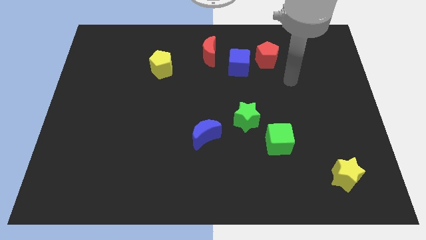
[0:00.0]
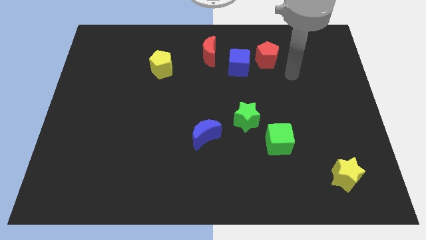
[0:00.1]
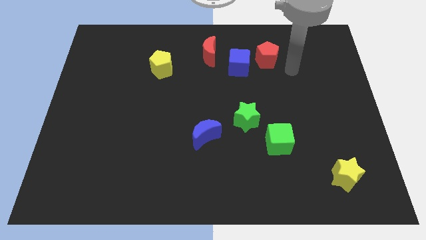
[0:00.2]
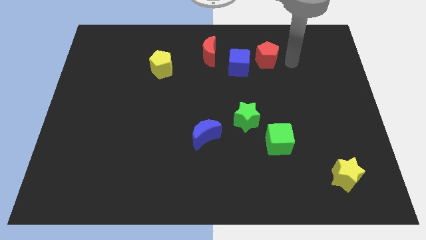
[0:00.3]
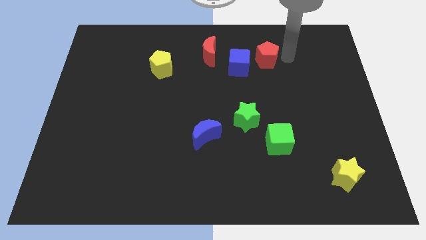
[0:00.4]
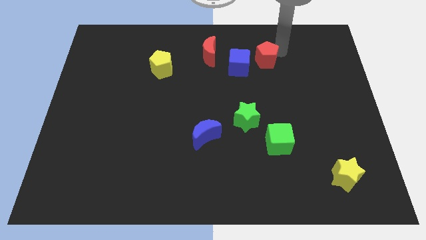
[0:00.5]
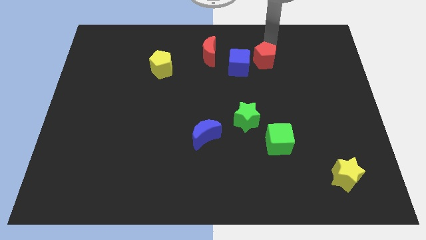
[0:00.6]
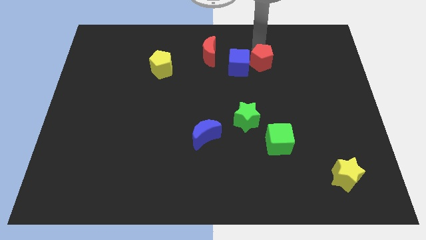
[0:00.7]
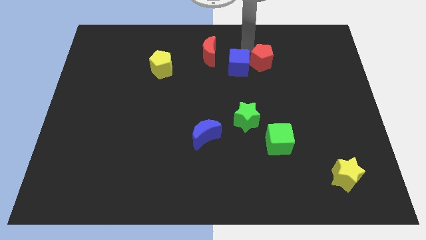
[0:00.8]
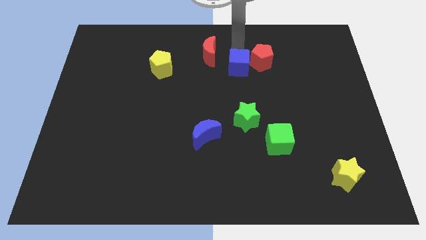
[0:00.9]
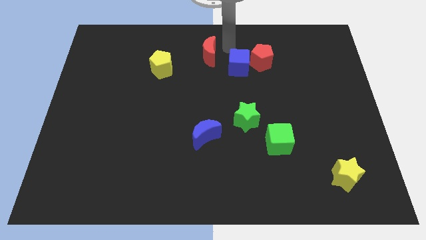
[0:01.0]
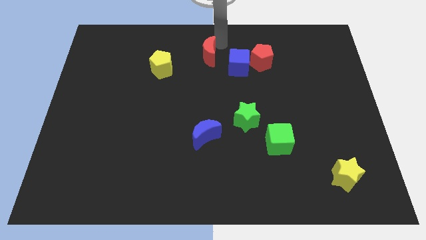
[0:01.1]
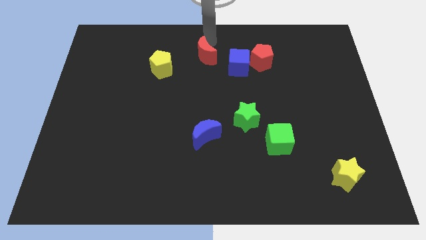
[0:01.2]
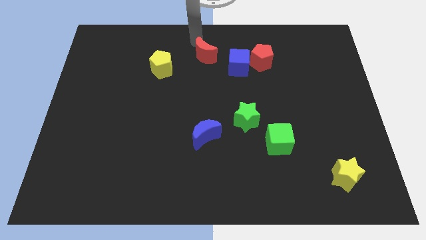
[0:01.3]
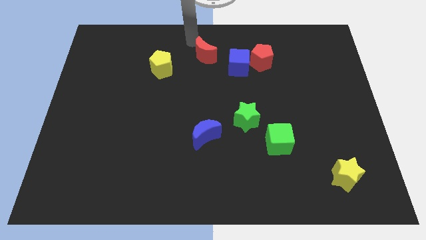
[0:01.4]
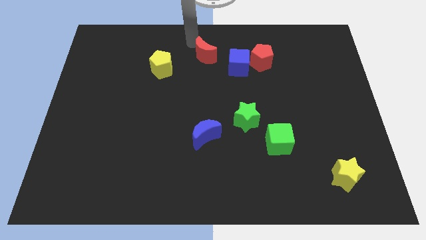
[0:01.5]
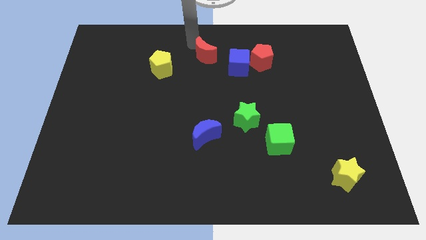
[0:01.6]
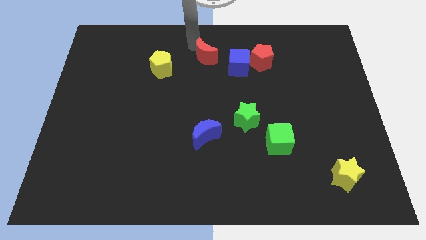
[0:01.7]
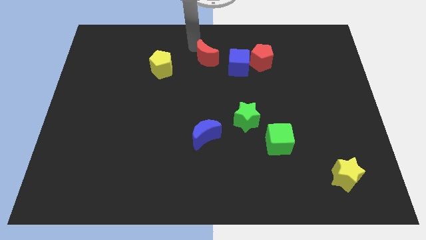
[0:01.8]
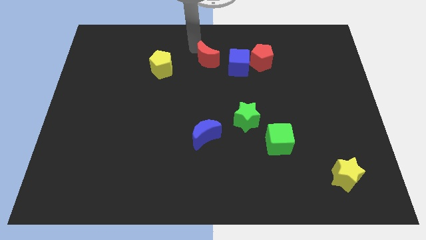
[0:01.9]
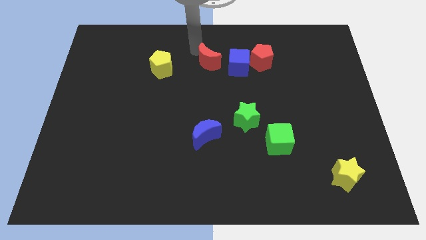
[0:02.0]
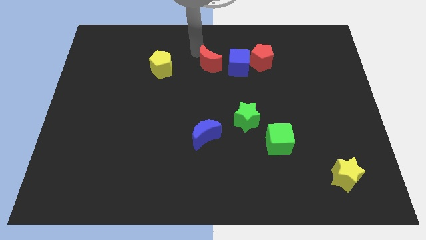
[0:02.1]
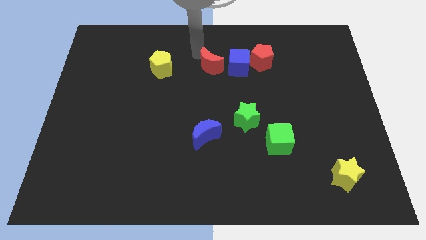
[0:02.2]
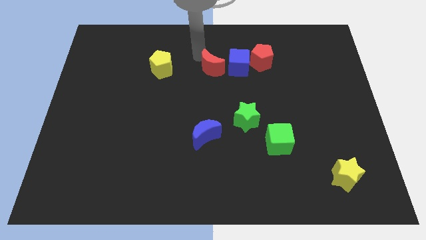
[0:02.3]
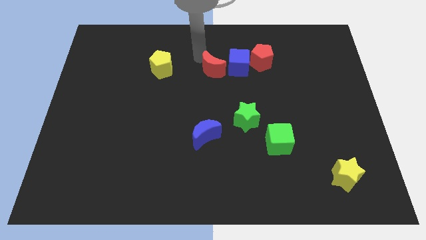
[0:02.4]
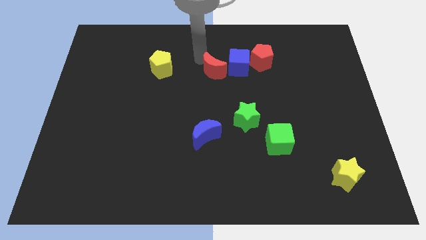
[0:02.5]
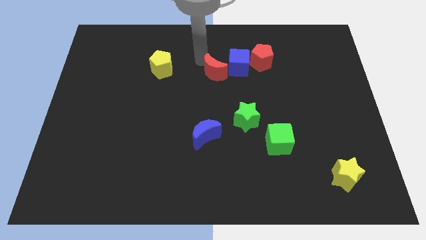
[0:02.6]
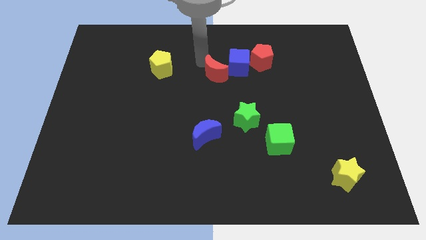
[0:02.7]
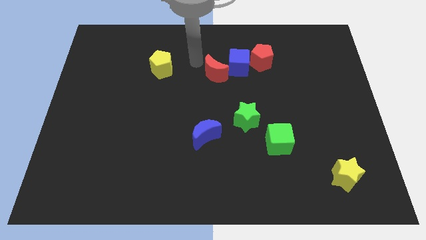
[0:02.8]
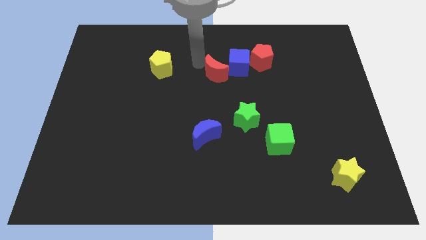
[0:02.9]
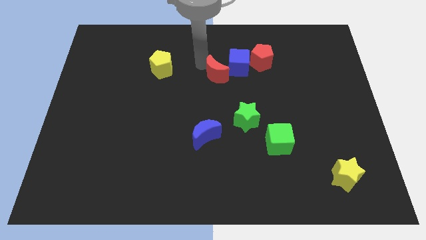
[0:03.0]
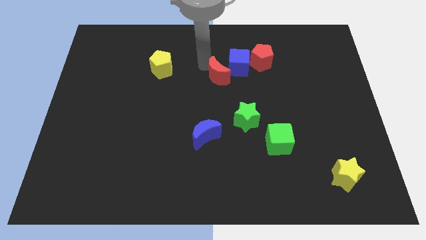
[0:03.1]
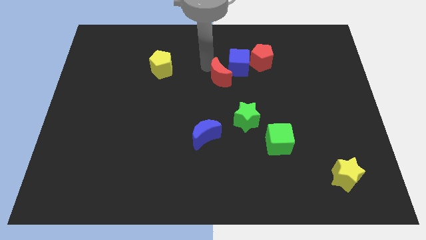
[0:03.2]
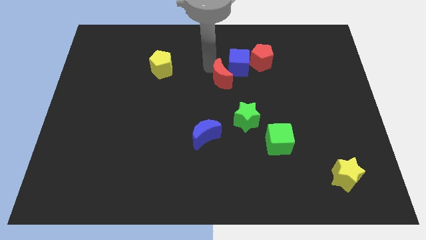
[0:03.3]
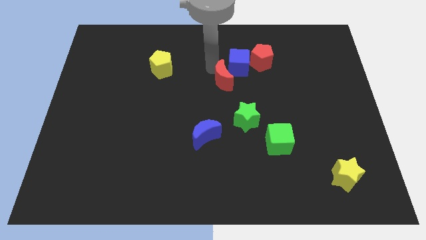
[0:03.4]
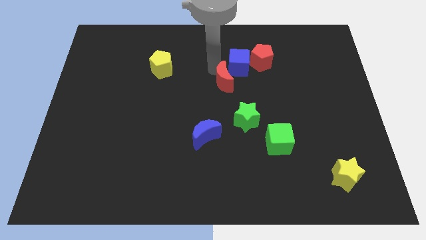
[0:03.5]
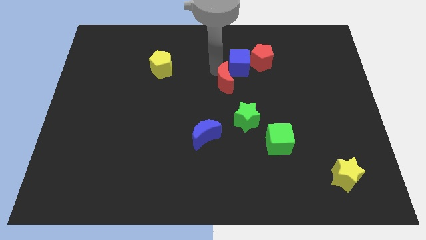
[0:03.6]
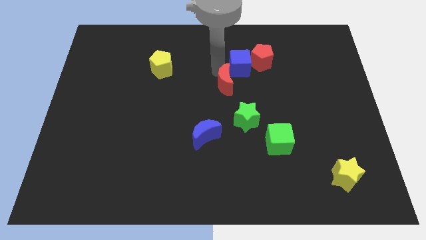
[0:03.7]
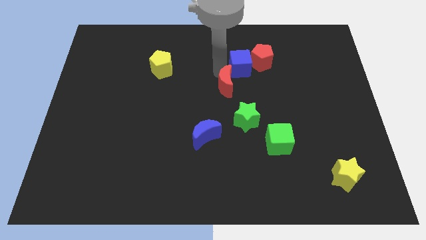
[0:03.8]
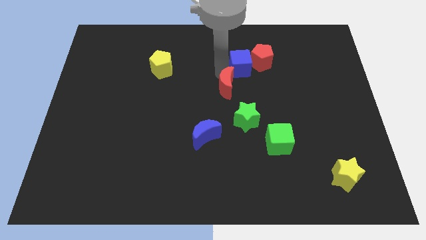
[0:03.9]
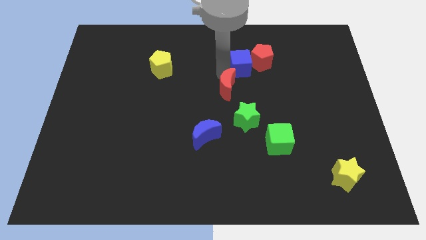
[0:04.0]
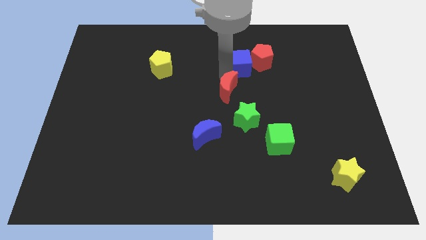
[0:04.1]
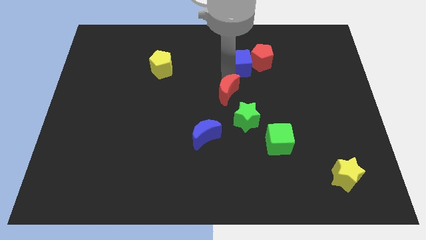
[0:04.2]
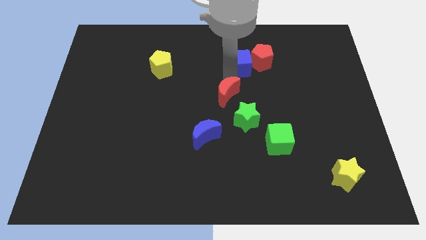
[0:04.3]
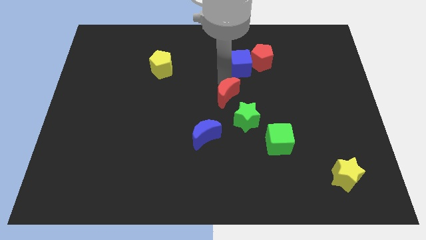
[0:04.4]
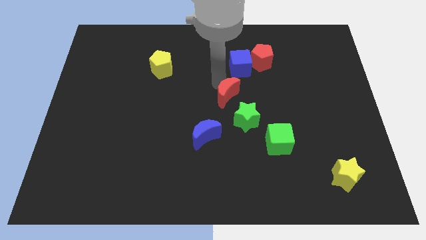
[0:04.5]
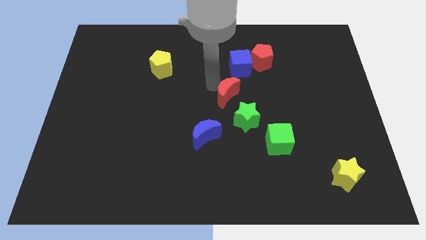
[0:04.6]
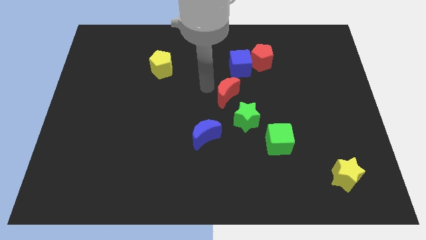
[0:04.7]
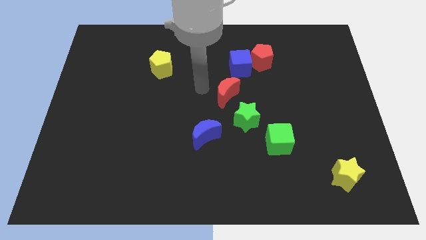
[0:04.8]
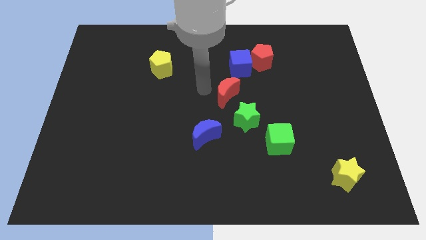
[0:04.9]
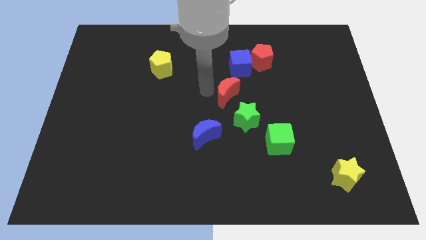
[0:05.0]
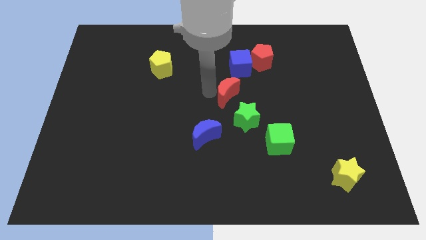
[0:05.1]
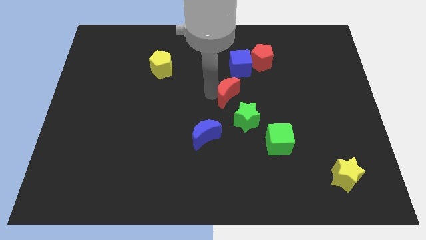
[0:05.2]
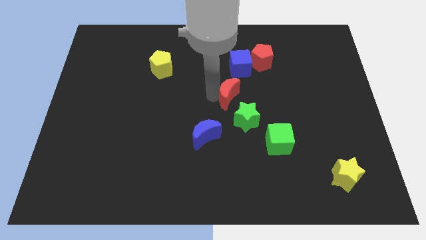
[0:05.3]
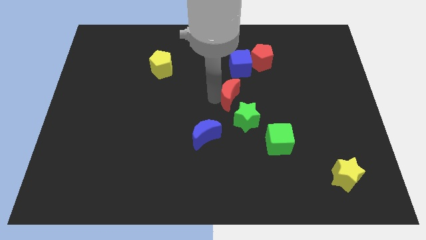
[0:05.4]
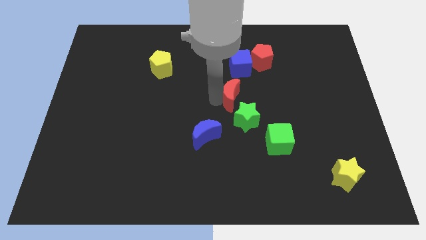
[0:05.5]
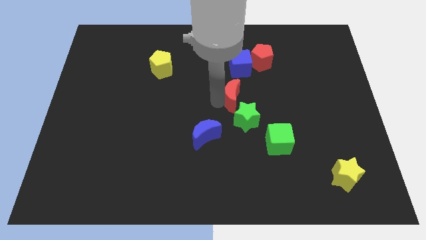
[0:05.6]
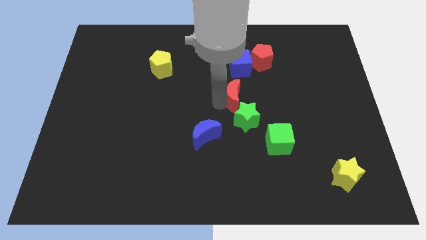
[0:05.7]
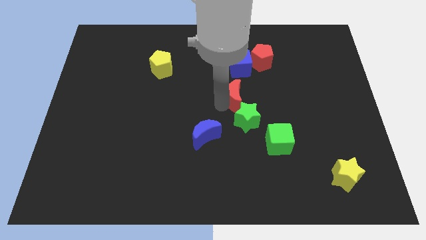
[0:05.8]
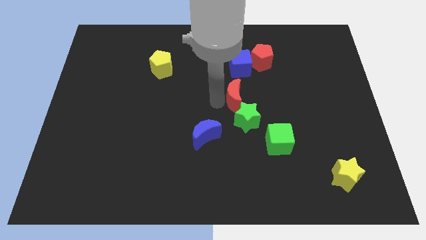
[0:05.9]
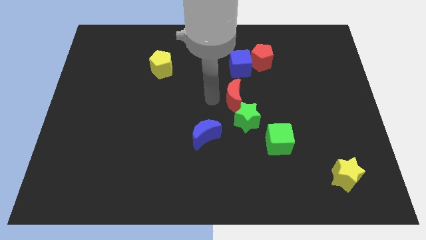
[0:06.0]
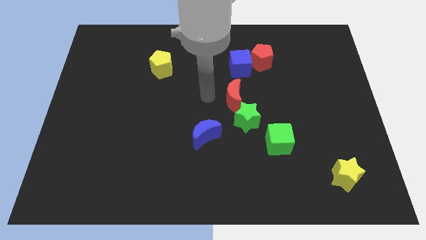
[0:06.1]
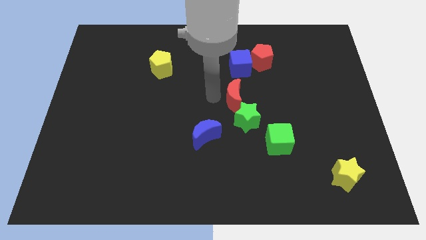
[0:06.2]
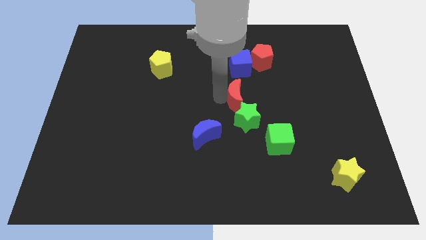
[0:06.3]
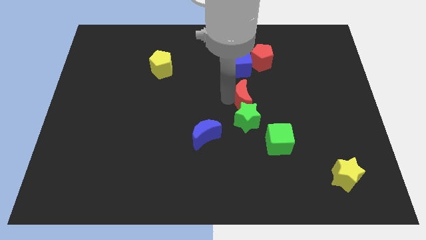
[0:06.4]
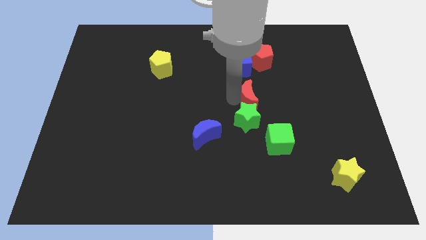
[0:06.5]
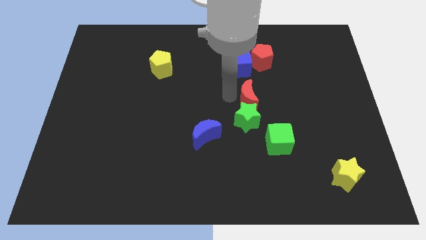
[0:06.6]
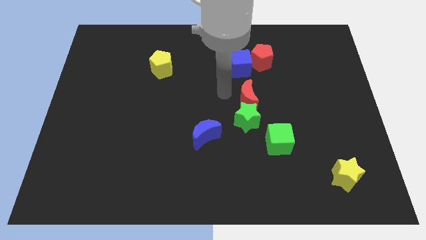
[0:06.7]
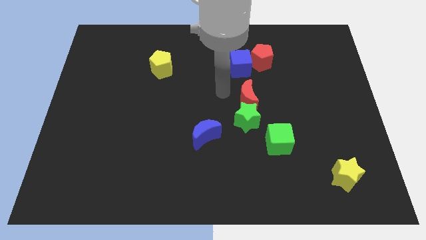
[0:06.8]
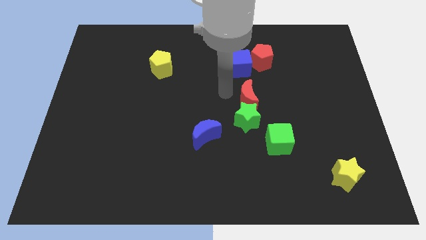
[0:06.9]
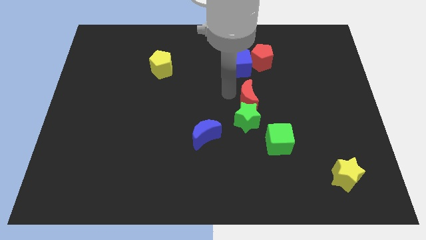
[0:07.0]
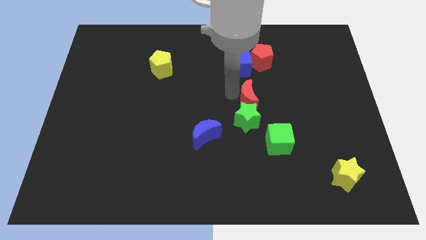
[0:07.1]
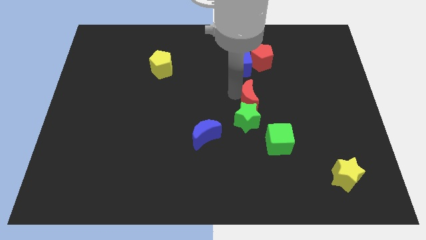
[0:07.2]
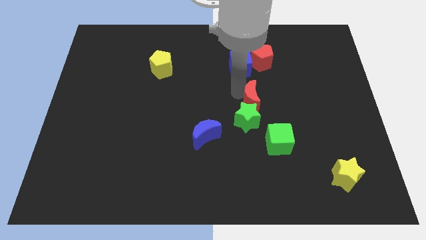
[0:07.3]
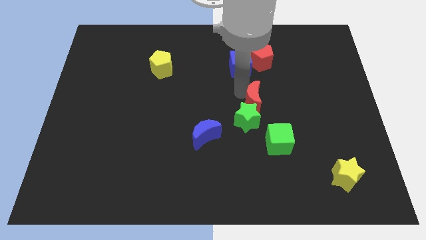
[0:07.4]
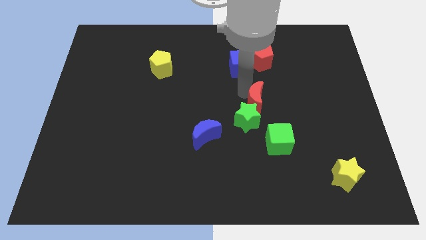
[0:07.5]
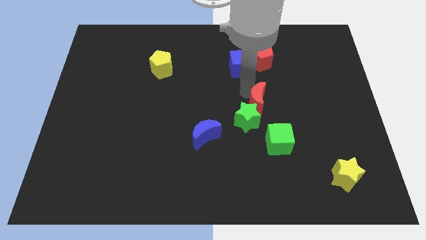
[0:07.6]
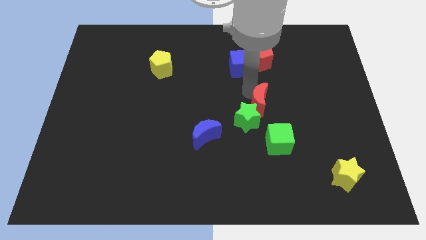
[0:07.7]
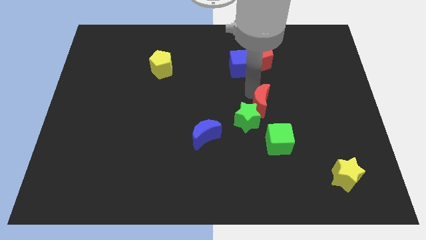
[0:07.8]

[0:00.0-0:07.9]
move the red moon diagonally down and right

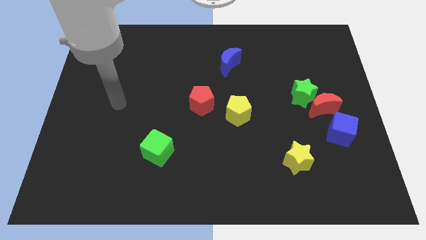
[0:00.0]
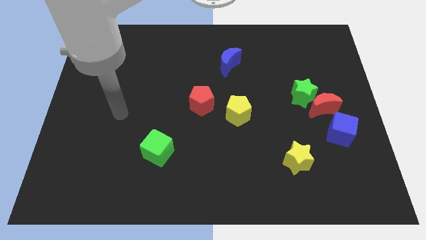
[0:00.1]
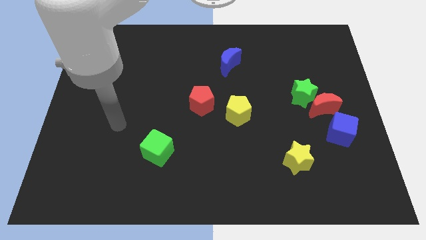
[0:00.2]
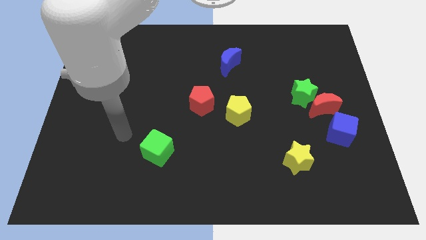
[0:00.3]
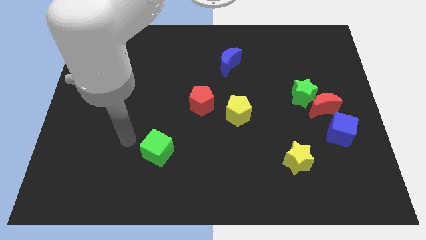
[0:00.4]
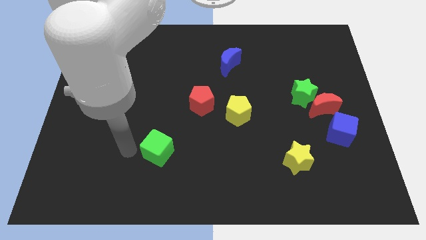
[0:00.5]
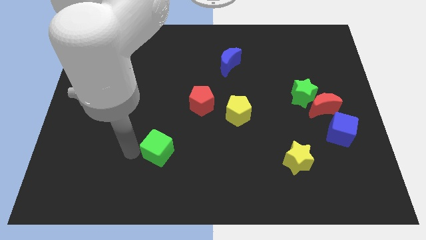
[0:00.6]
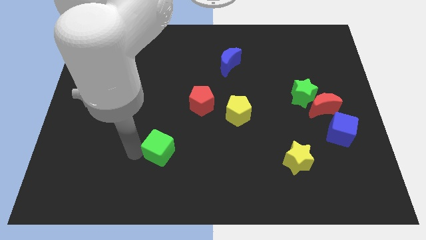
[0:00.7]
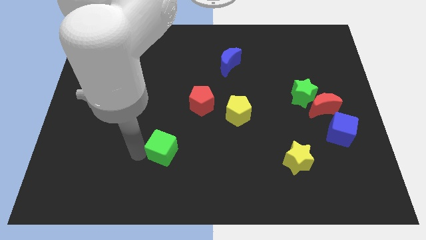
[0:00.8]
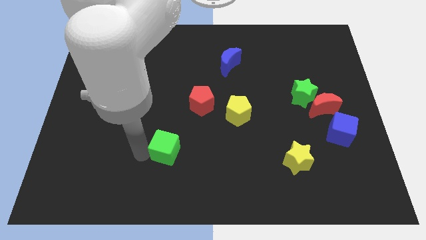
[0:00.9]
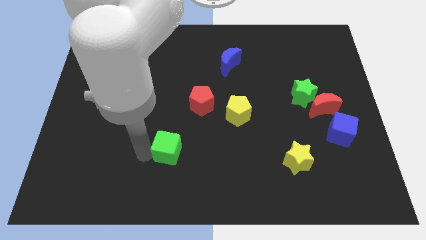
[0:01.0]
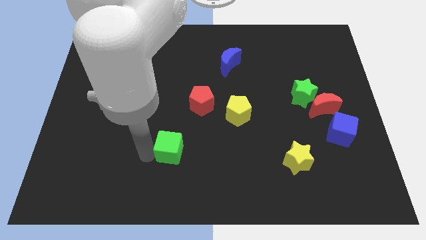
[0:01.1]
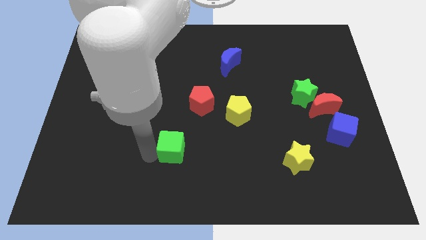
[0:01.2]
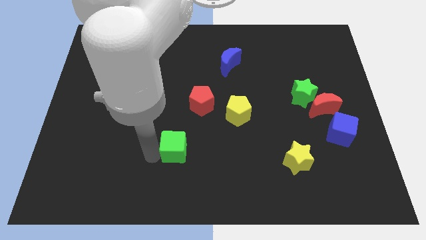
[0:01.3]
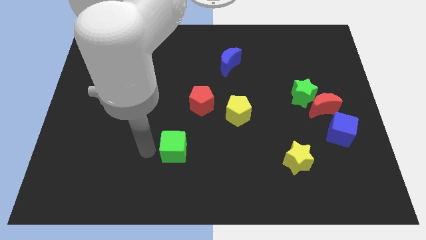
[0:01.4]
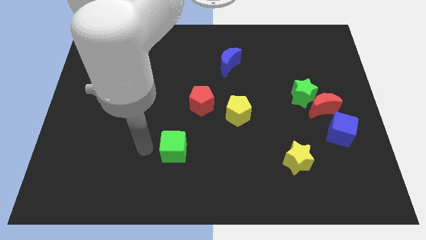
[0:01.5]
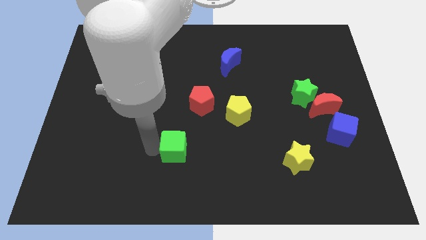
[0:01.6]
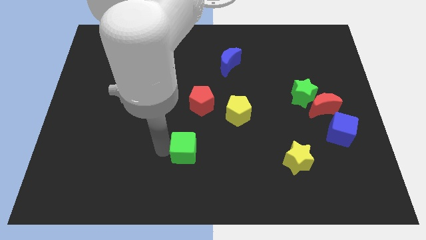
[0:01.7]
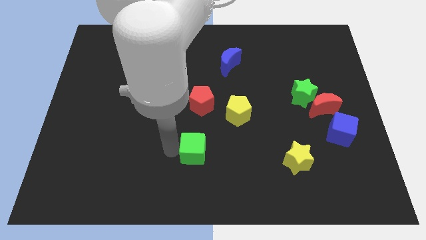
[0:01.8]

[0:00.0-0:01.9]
slightly move the green cube right
